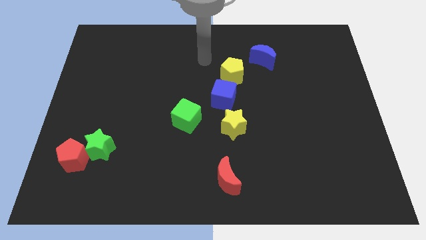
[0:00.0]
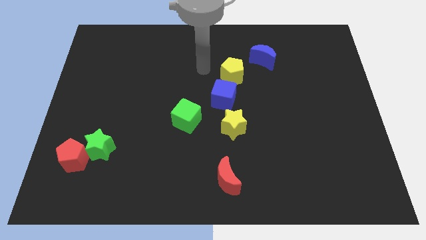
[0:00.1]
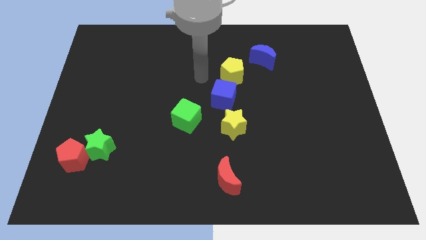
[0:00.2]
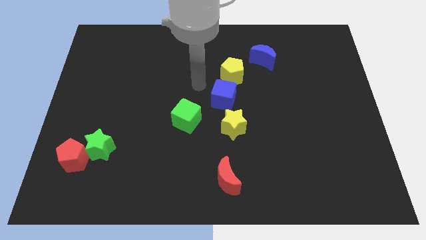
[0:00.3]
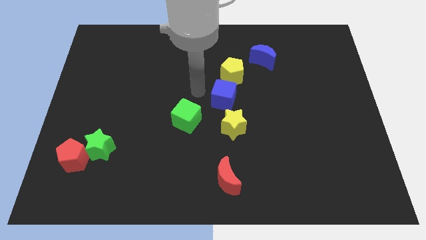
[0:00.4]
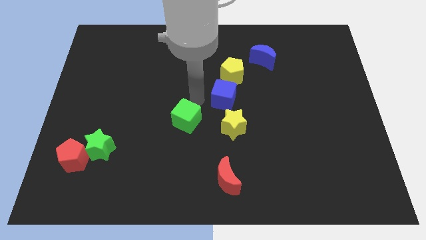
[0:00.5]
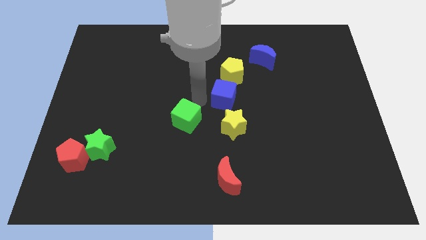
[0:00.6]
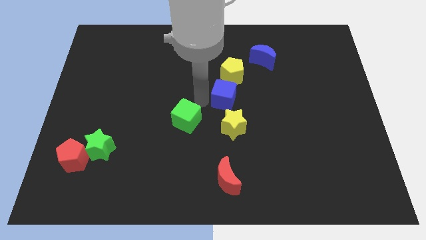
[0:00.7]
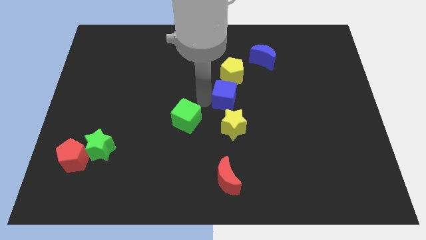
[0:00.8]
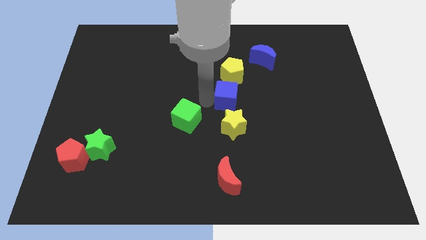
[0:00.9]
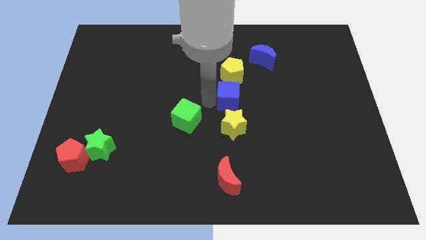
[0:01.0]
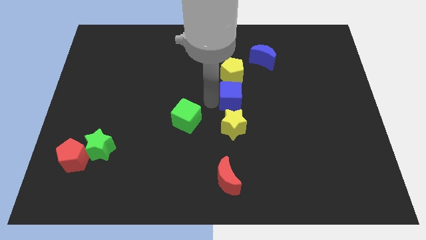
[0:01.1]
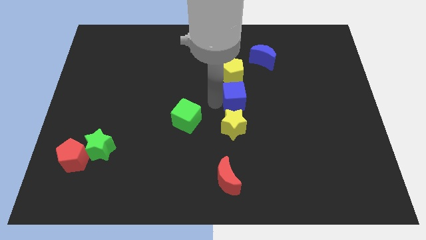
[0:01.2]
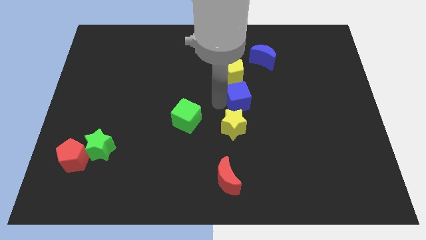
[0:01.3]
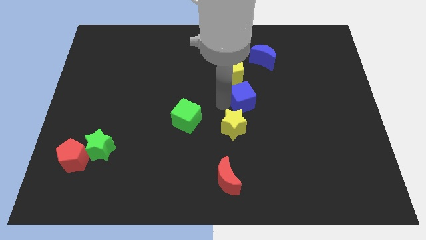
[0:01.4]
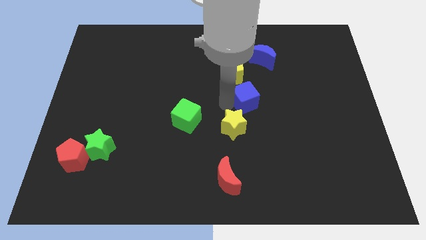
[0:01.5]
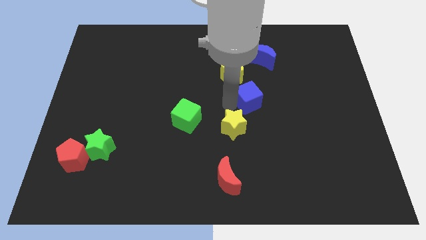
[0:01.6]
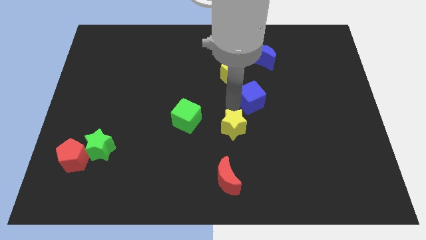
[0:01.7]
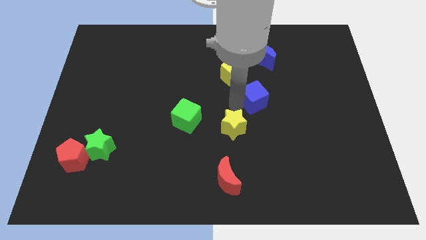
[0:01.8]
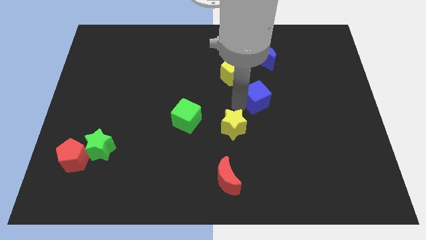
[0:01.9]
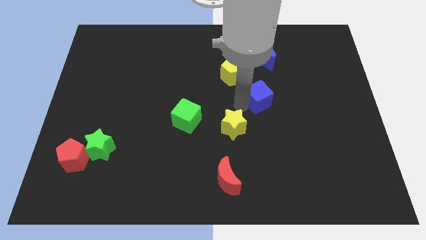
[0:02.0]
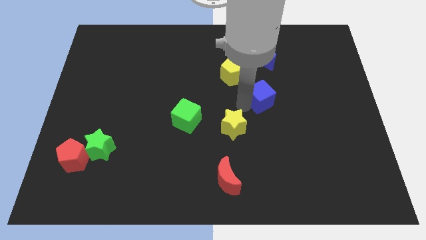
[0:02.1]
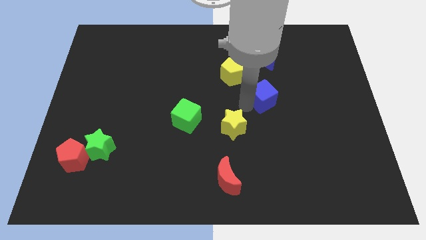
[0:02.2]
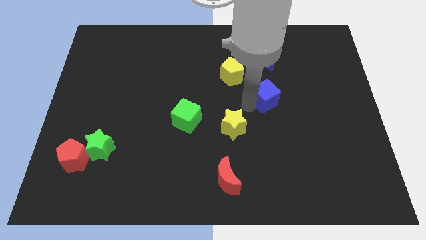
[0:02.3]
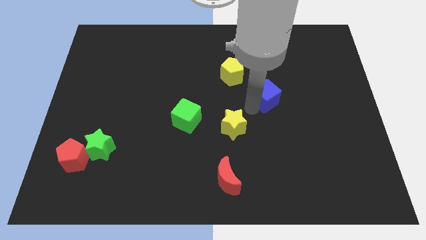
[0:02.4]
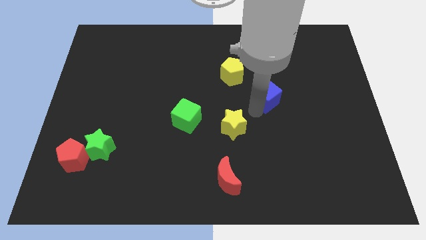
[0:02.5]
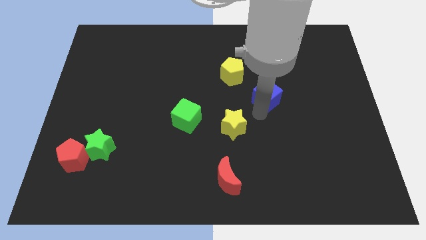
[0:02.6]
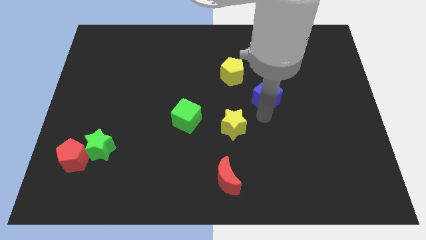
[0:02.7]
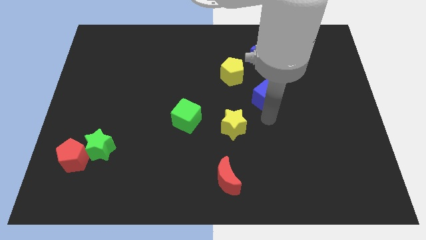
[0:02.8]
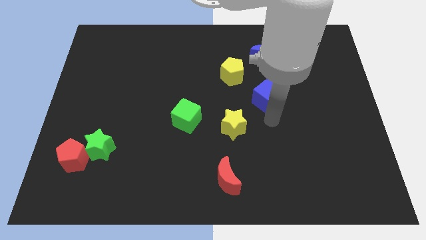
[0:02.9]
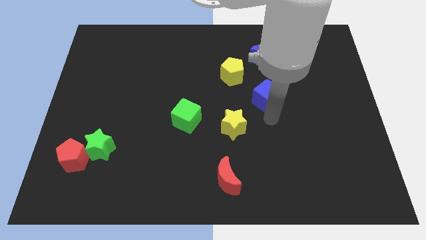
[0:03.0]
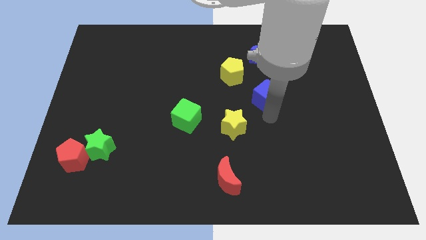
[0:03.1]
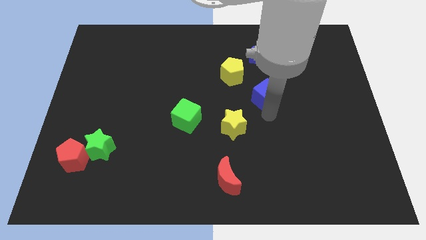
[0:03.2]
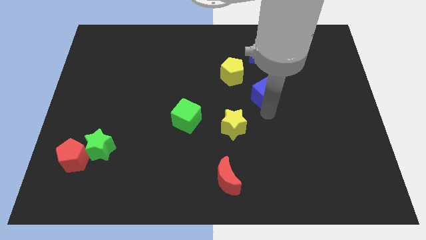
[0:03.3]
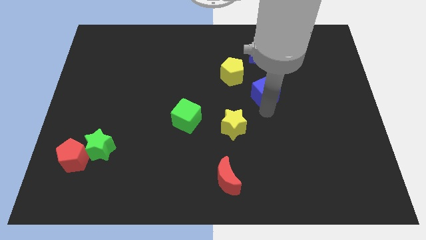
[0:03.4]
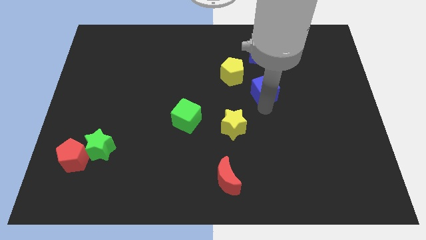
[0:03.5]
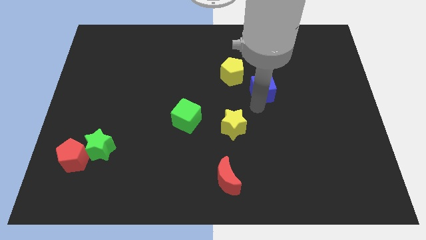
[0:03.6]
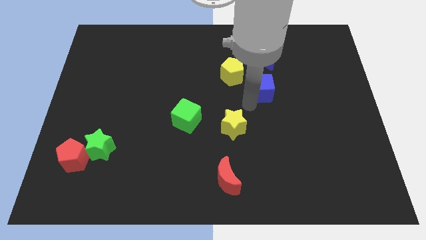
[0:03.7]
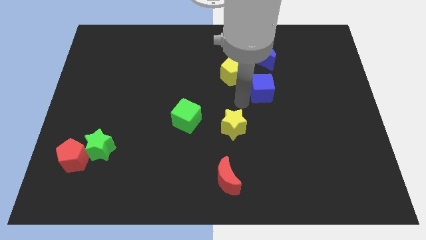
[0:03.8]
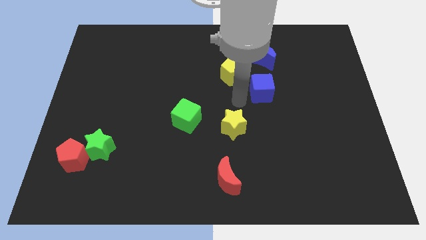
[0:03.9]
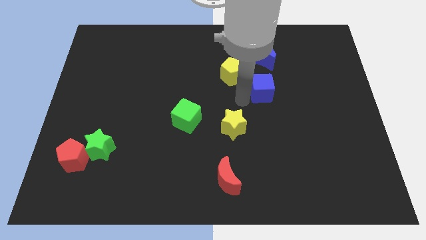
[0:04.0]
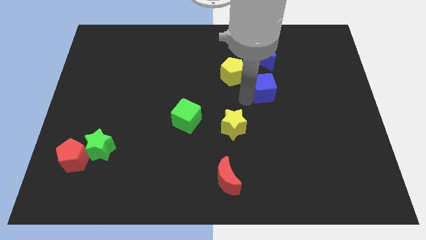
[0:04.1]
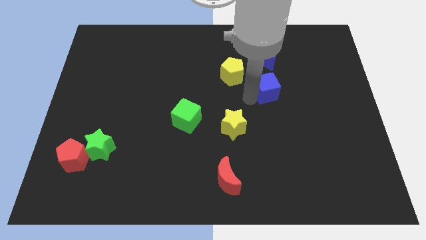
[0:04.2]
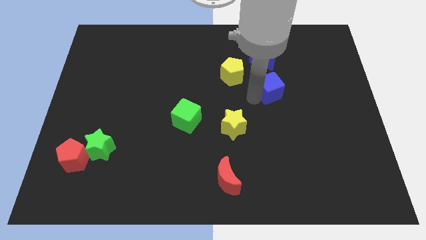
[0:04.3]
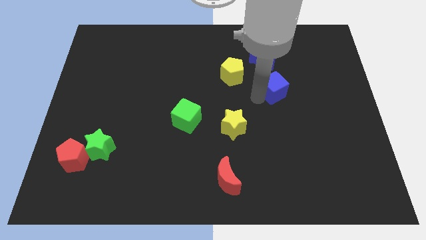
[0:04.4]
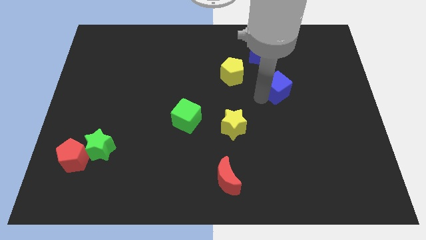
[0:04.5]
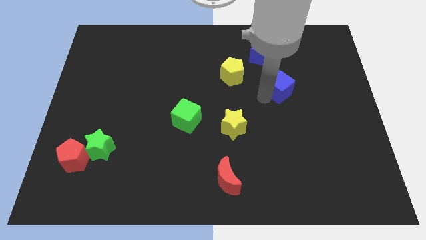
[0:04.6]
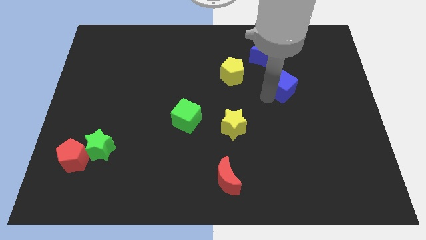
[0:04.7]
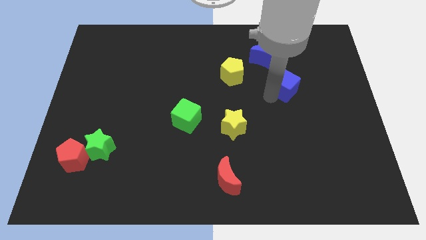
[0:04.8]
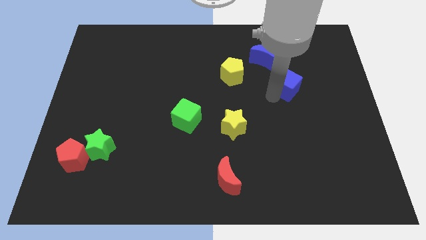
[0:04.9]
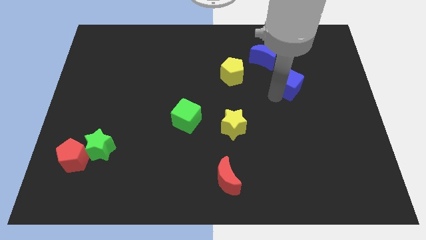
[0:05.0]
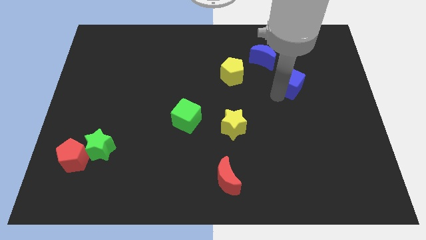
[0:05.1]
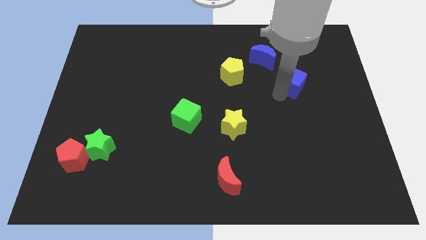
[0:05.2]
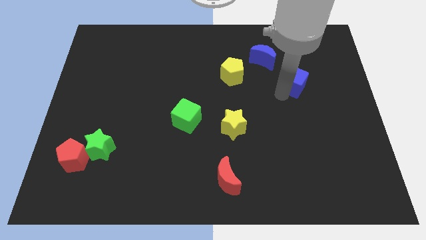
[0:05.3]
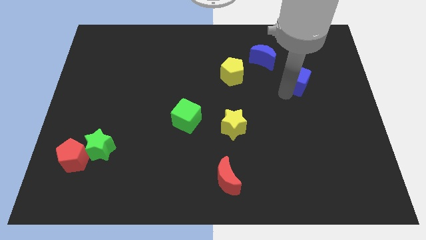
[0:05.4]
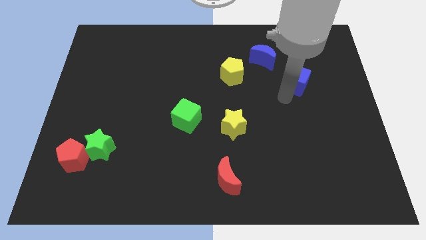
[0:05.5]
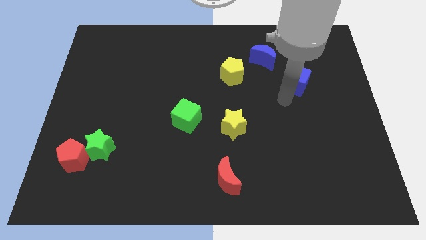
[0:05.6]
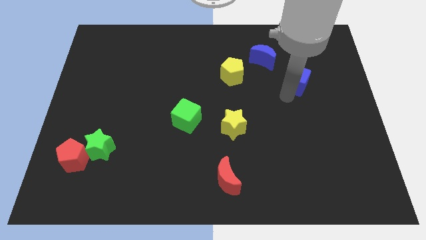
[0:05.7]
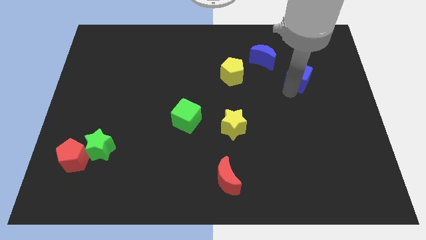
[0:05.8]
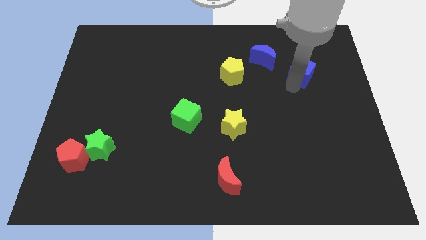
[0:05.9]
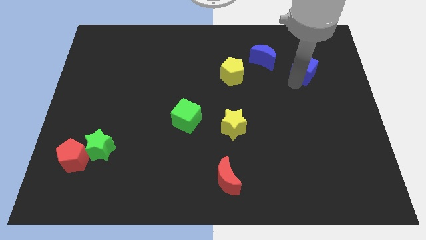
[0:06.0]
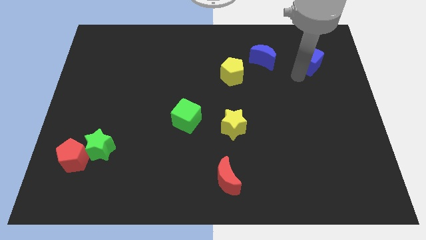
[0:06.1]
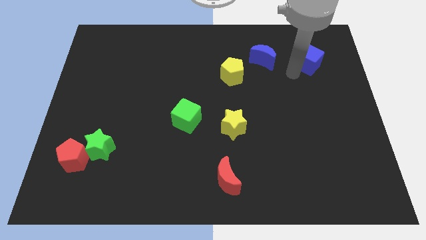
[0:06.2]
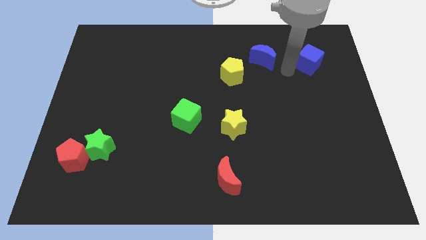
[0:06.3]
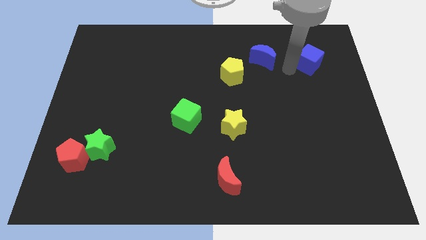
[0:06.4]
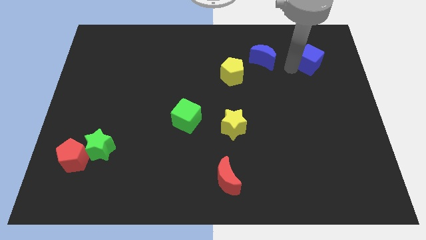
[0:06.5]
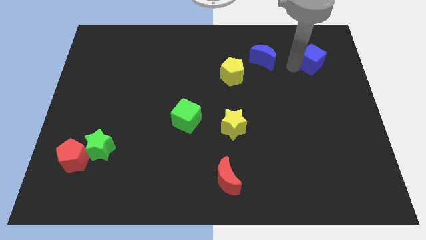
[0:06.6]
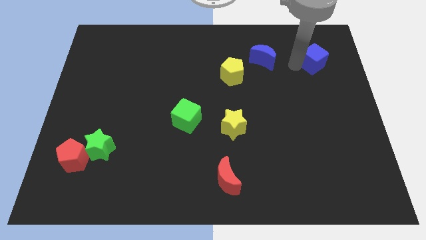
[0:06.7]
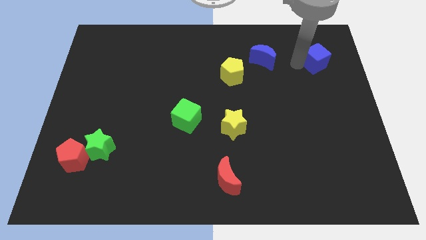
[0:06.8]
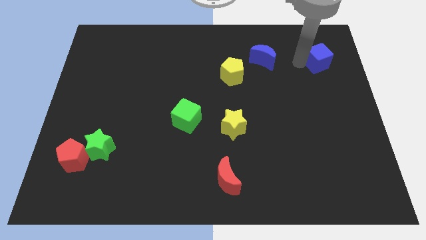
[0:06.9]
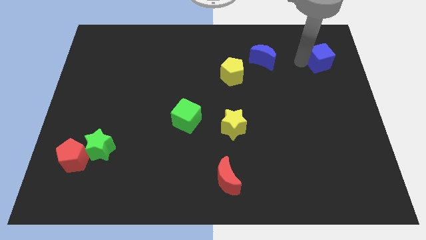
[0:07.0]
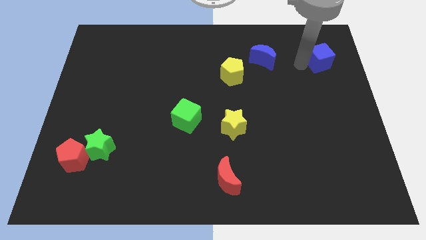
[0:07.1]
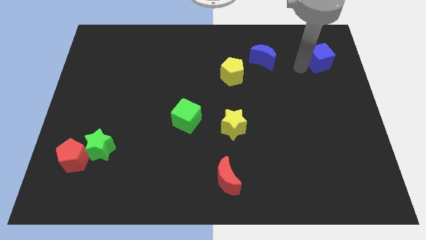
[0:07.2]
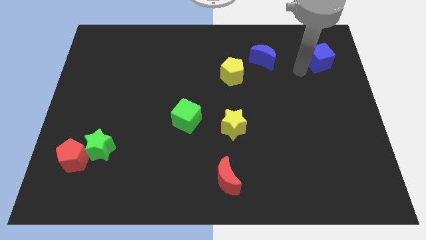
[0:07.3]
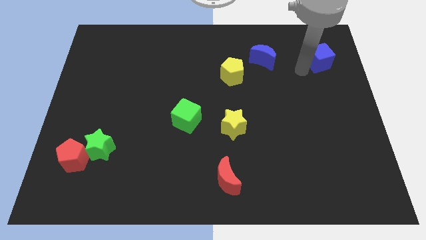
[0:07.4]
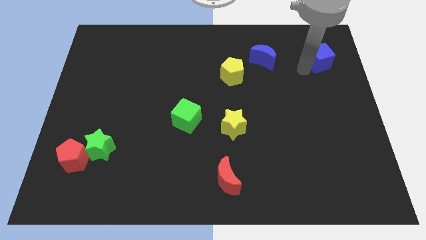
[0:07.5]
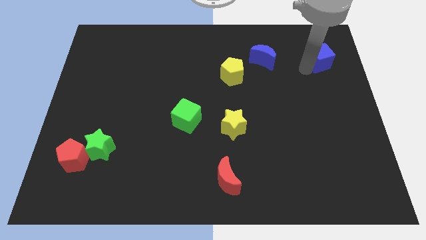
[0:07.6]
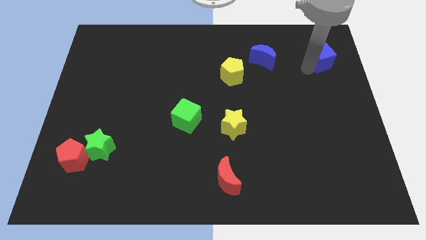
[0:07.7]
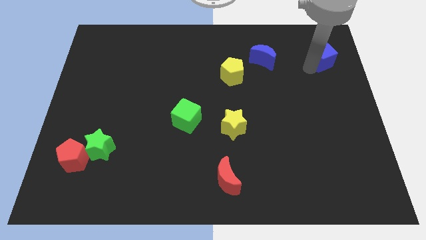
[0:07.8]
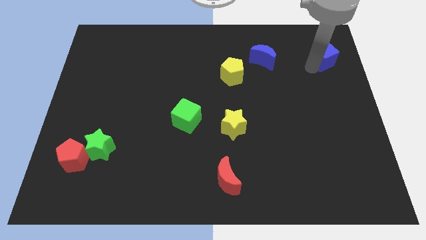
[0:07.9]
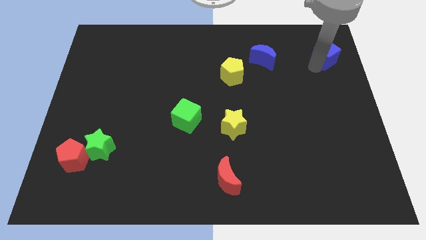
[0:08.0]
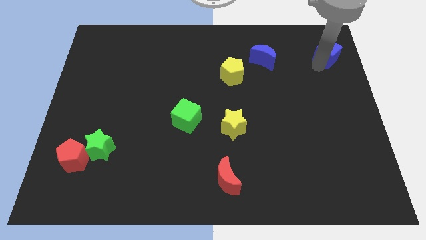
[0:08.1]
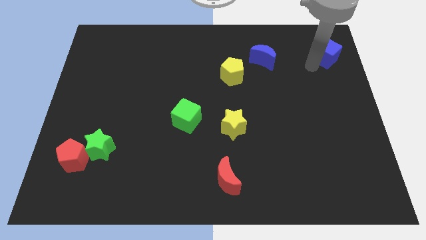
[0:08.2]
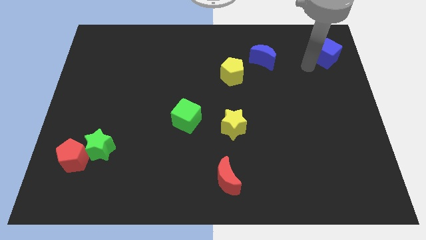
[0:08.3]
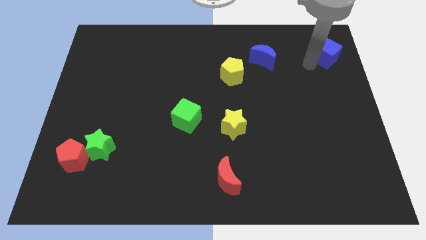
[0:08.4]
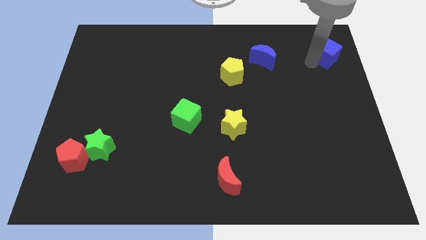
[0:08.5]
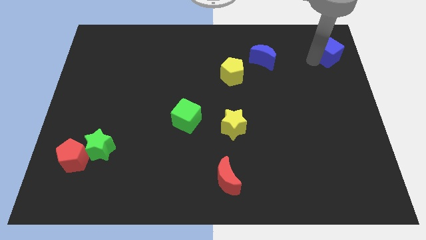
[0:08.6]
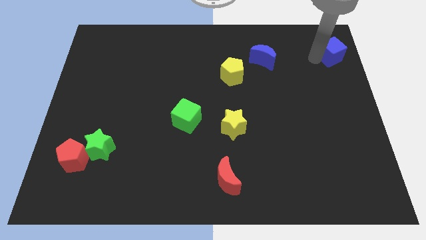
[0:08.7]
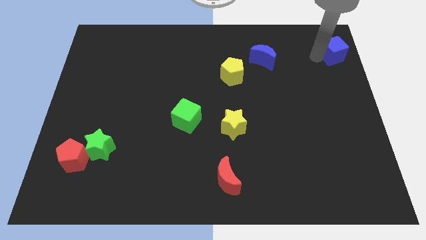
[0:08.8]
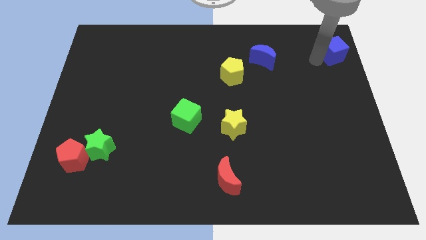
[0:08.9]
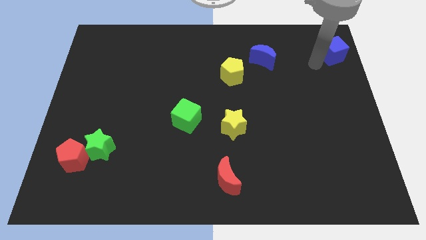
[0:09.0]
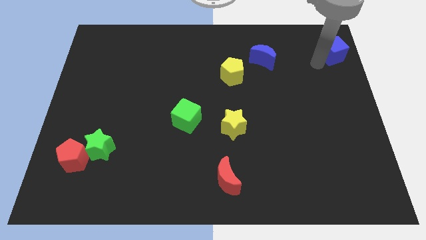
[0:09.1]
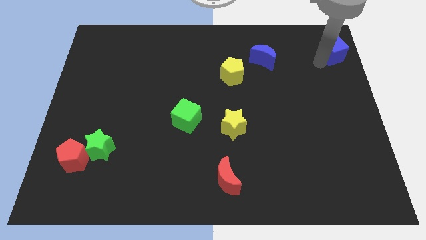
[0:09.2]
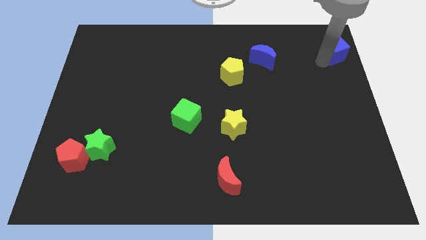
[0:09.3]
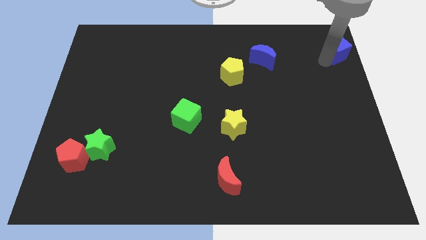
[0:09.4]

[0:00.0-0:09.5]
put the blue cube to the top right
